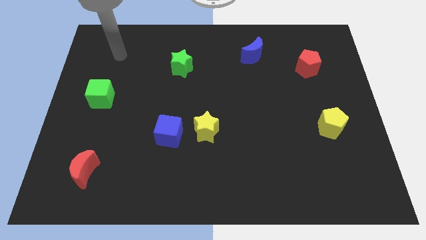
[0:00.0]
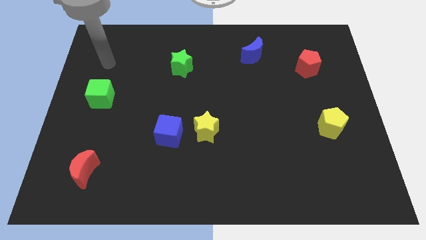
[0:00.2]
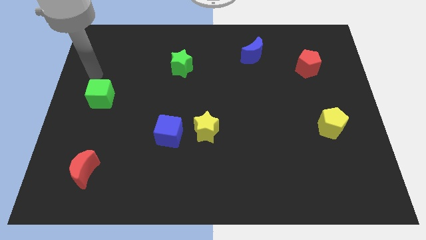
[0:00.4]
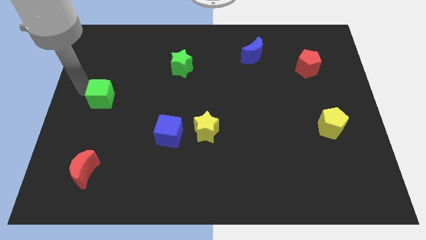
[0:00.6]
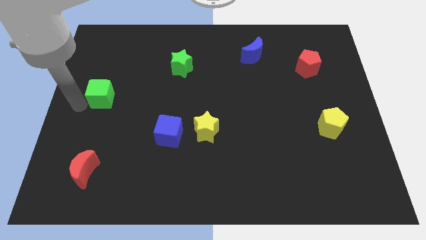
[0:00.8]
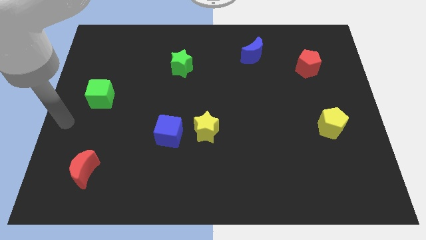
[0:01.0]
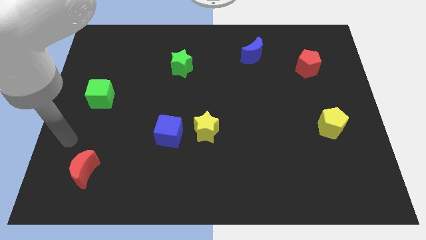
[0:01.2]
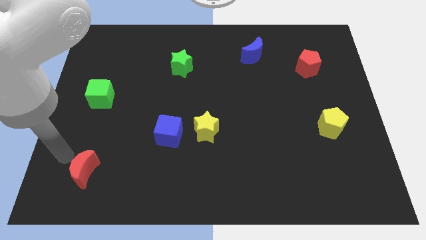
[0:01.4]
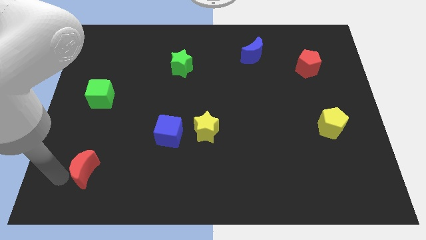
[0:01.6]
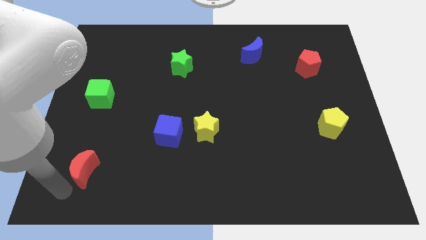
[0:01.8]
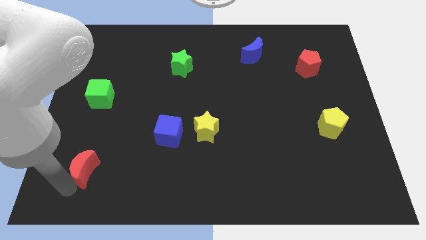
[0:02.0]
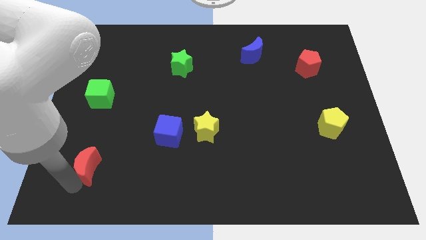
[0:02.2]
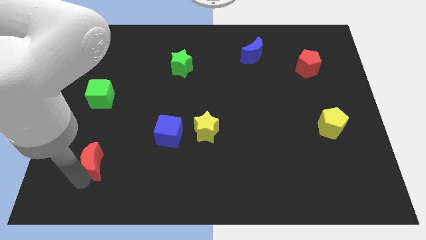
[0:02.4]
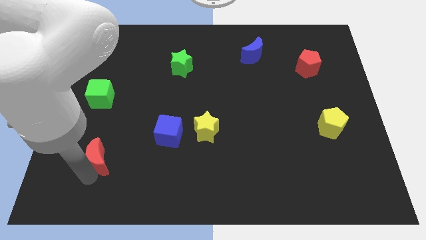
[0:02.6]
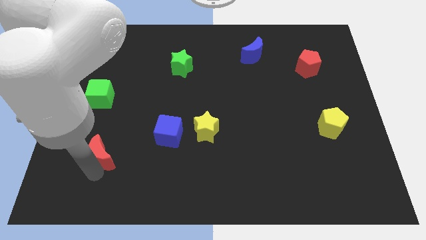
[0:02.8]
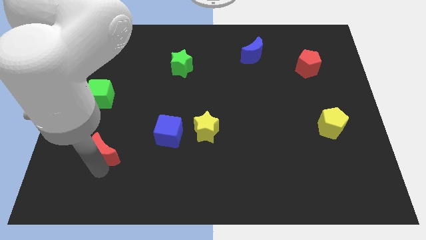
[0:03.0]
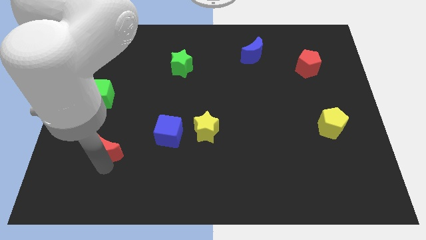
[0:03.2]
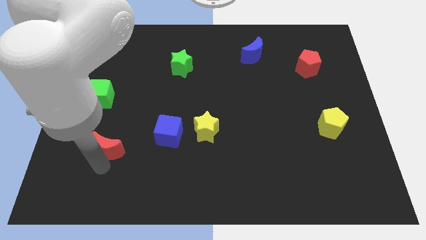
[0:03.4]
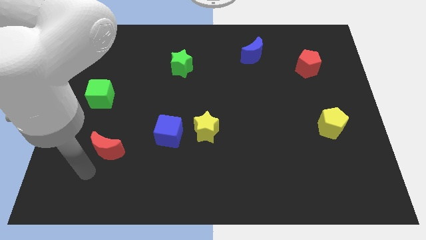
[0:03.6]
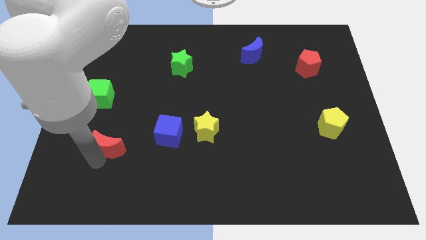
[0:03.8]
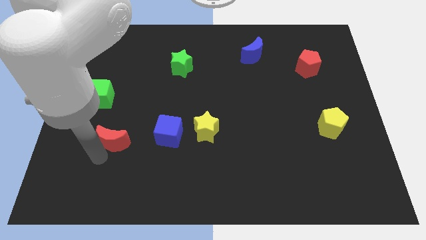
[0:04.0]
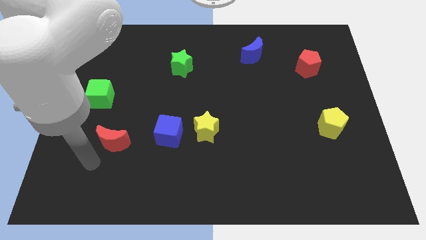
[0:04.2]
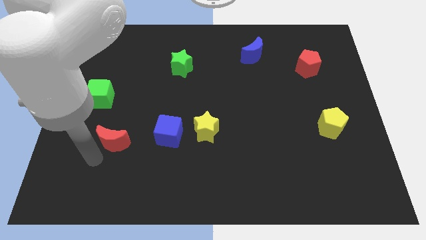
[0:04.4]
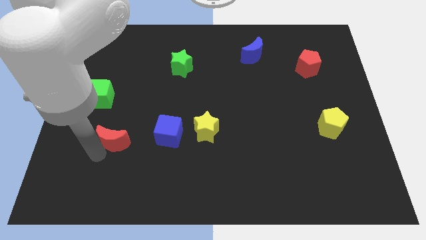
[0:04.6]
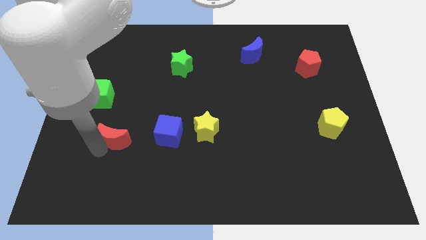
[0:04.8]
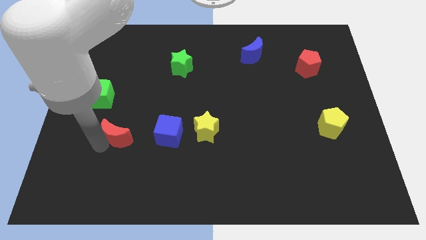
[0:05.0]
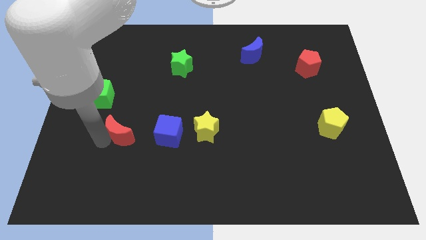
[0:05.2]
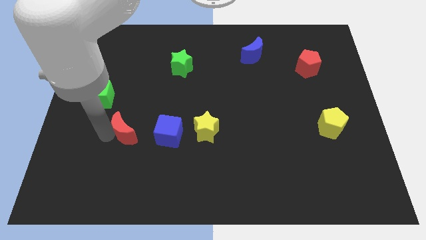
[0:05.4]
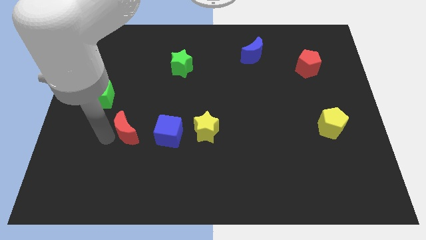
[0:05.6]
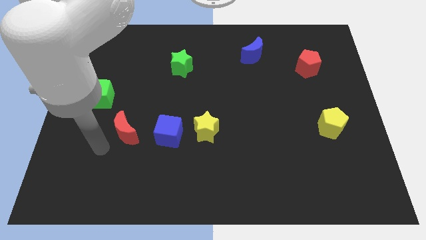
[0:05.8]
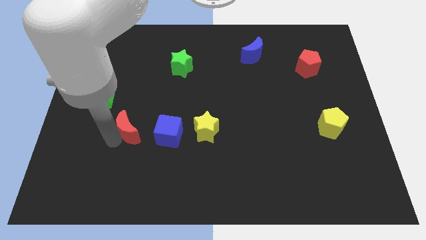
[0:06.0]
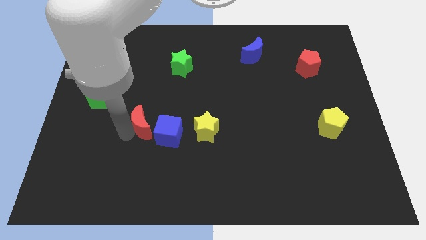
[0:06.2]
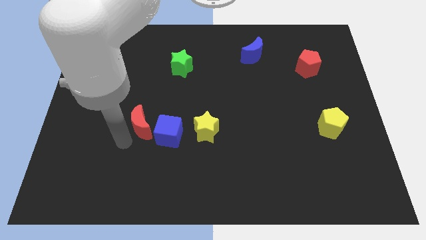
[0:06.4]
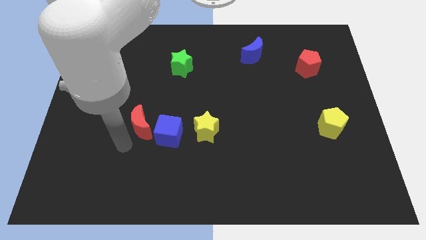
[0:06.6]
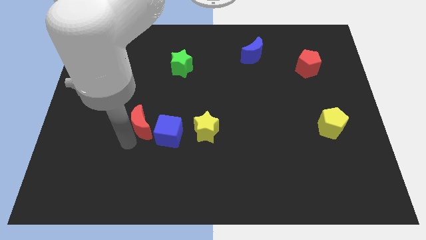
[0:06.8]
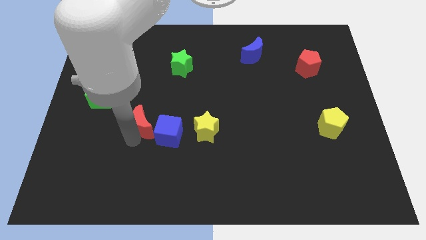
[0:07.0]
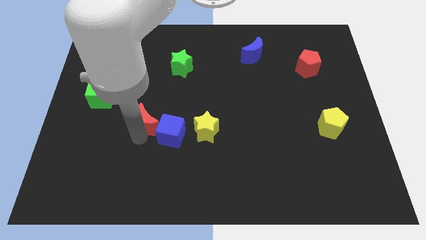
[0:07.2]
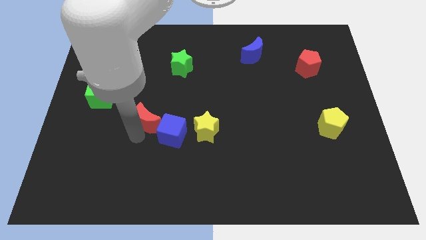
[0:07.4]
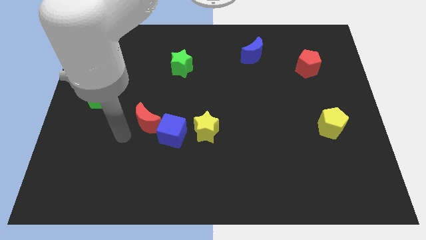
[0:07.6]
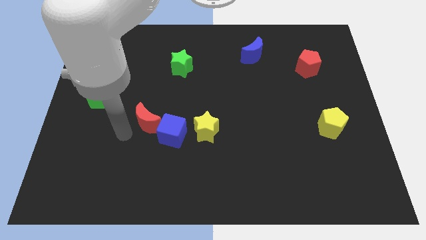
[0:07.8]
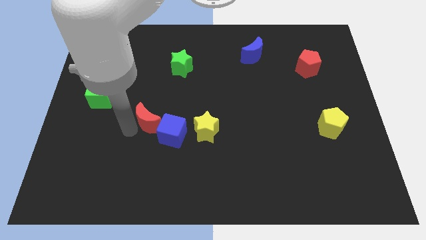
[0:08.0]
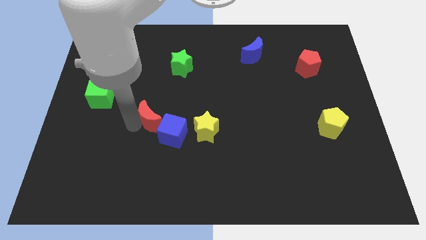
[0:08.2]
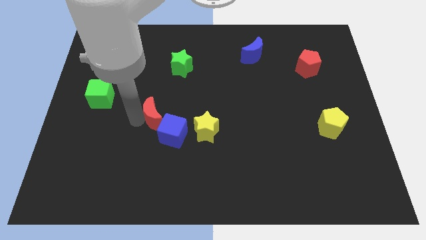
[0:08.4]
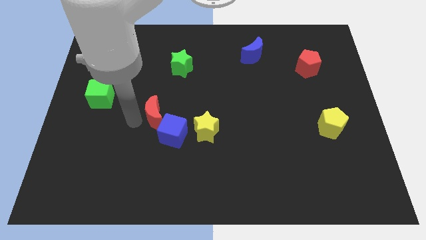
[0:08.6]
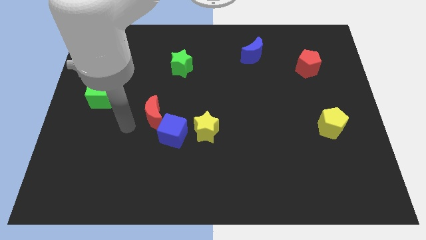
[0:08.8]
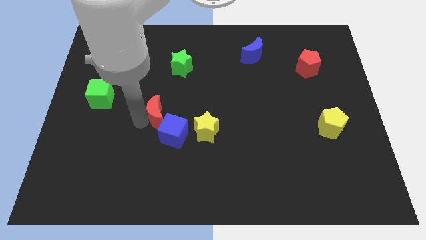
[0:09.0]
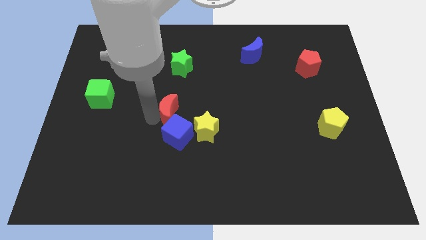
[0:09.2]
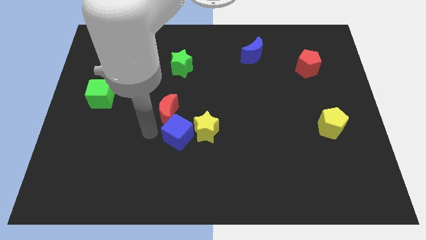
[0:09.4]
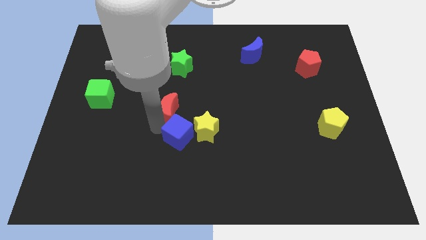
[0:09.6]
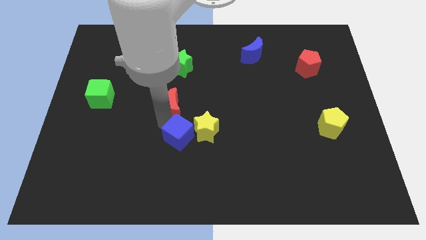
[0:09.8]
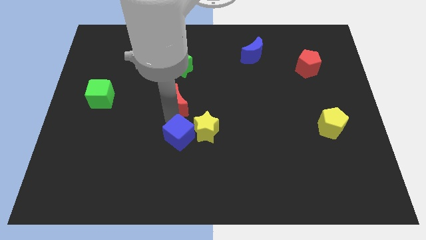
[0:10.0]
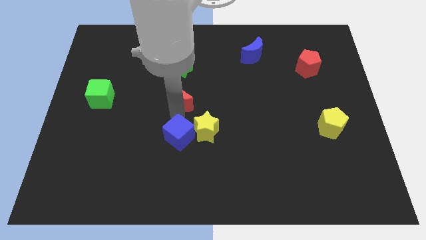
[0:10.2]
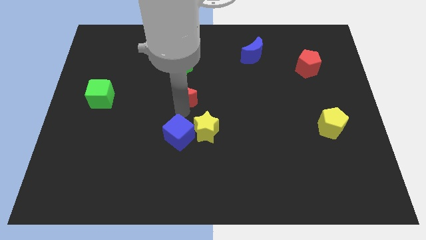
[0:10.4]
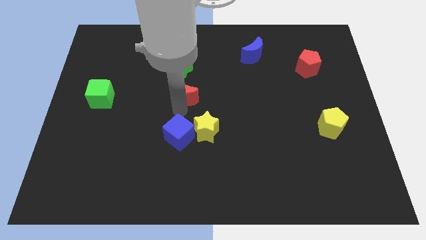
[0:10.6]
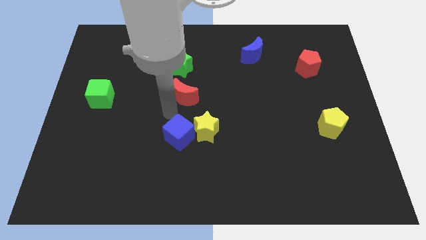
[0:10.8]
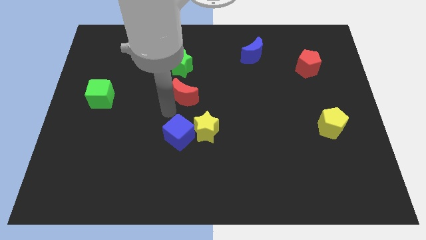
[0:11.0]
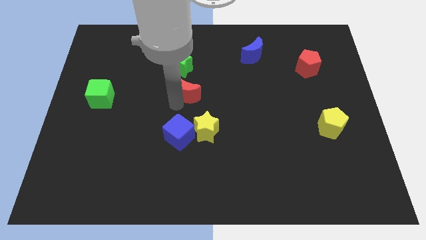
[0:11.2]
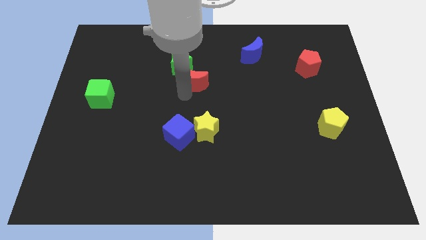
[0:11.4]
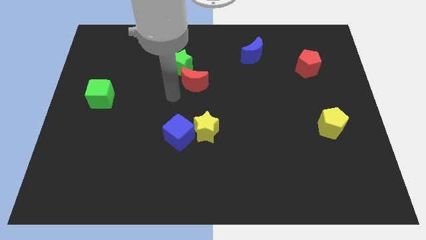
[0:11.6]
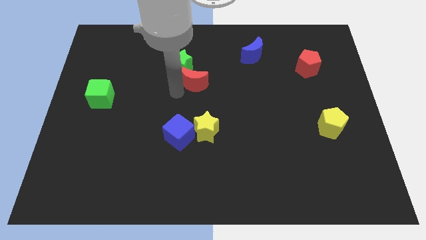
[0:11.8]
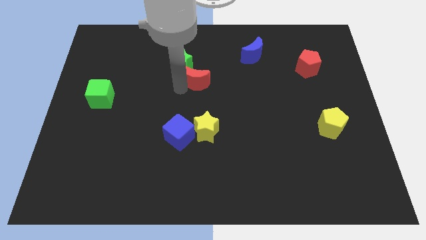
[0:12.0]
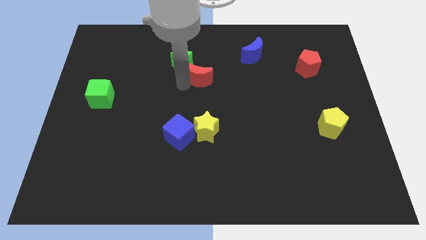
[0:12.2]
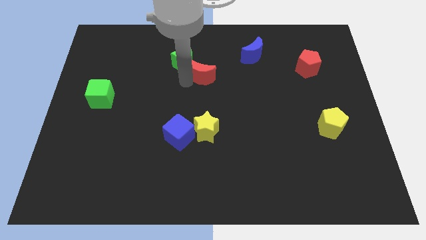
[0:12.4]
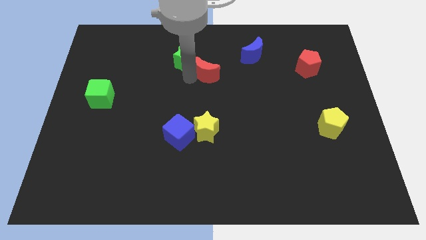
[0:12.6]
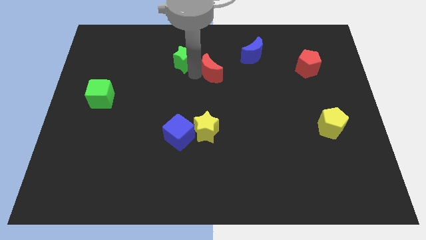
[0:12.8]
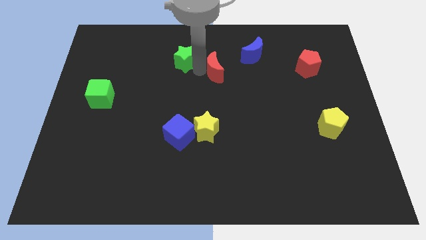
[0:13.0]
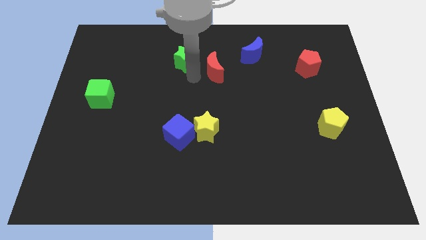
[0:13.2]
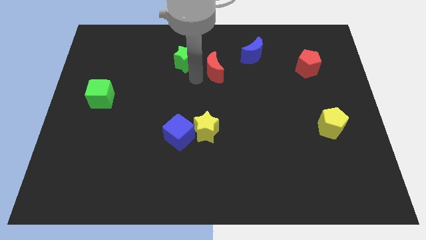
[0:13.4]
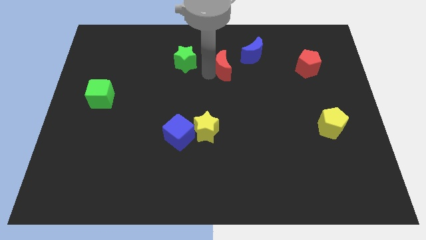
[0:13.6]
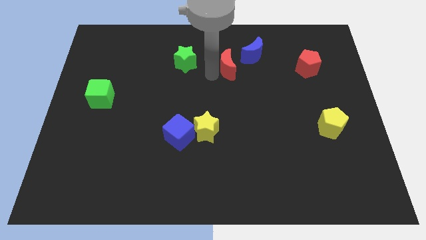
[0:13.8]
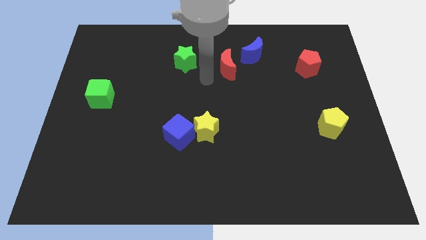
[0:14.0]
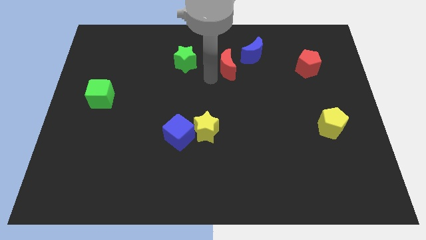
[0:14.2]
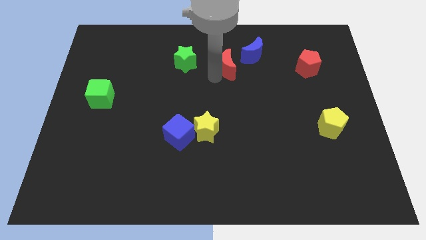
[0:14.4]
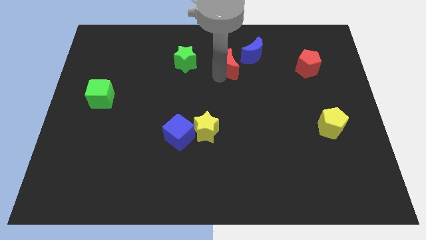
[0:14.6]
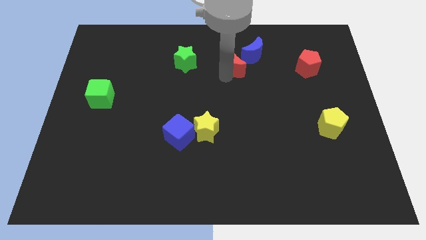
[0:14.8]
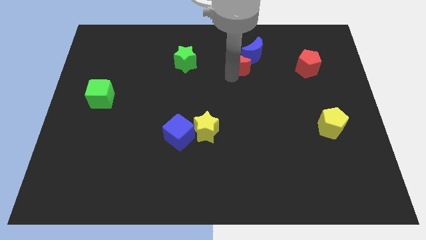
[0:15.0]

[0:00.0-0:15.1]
slide the red moon to the blue moon
